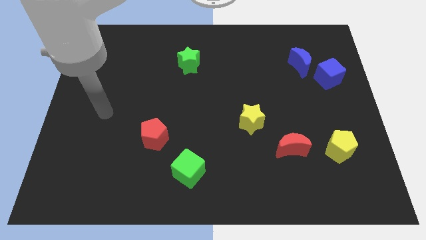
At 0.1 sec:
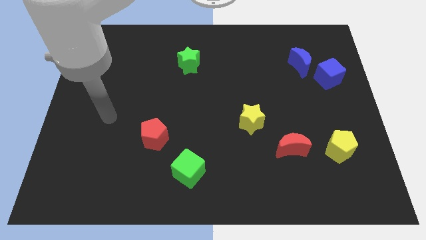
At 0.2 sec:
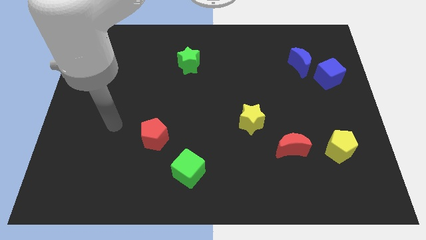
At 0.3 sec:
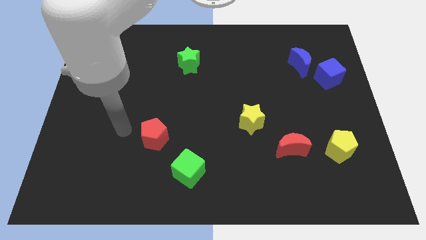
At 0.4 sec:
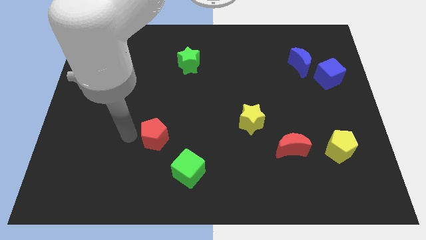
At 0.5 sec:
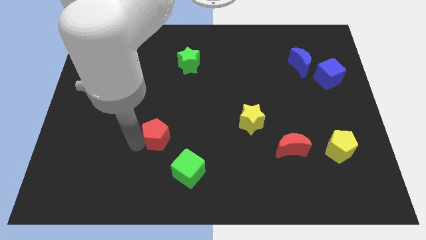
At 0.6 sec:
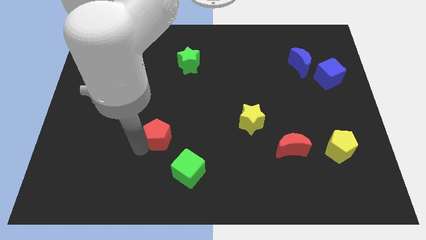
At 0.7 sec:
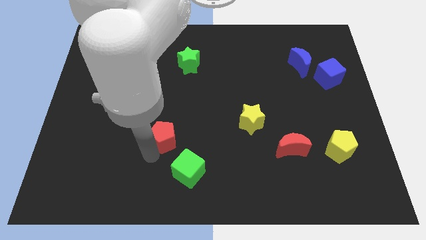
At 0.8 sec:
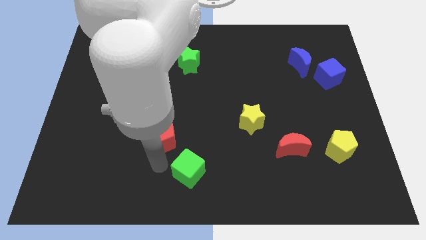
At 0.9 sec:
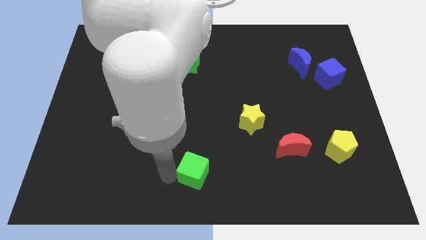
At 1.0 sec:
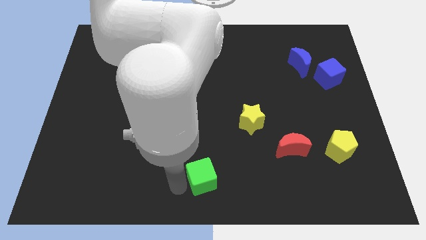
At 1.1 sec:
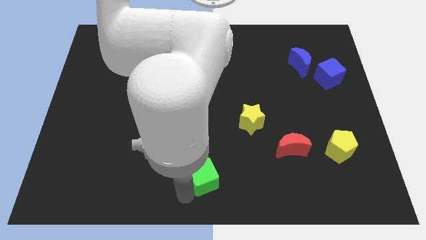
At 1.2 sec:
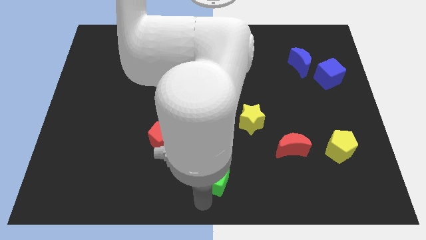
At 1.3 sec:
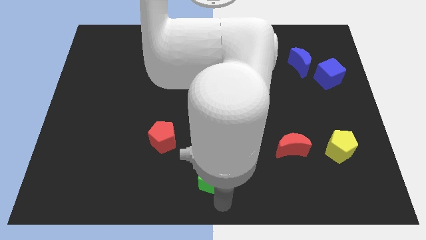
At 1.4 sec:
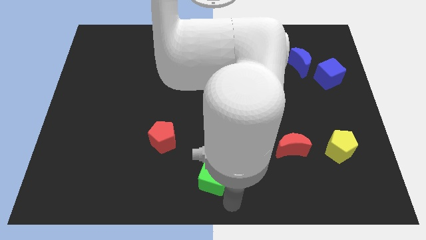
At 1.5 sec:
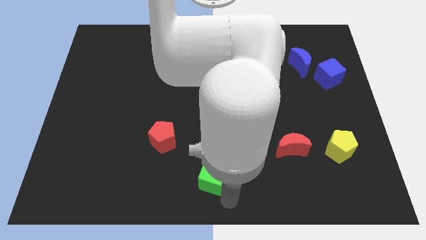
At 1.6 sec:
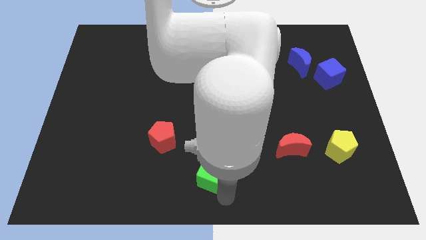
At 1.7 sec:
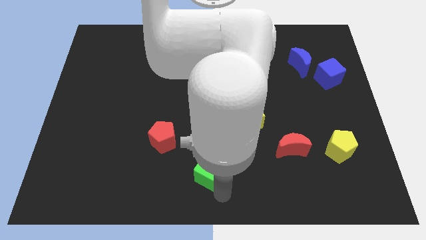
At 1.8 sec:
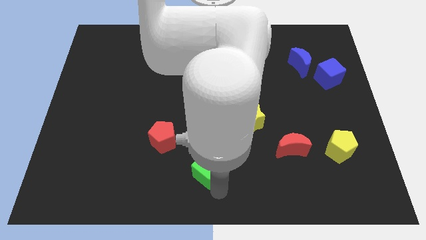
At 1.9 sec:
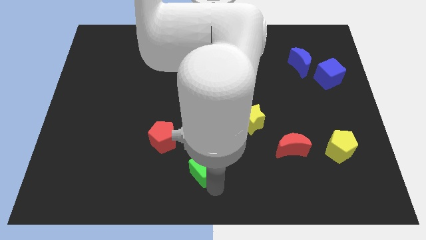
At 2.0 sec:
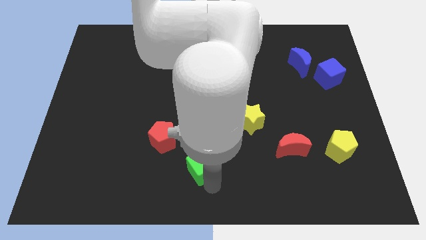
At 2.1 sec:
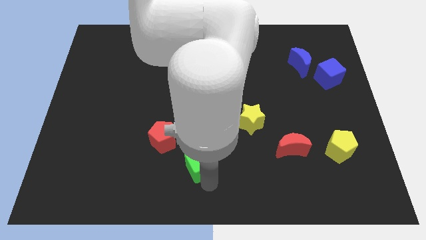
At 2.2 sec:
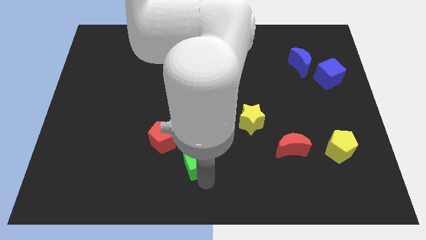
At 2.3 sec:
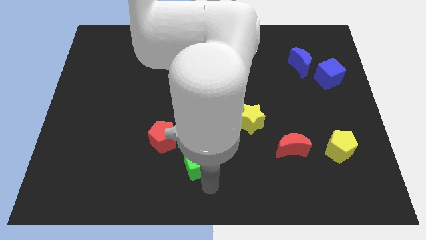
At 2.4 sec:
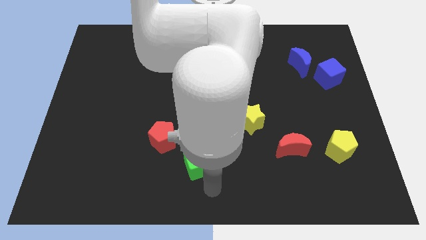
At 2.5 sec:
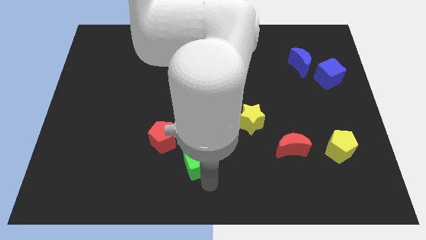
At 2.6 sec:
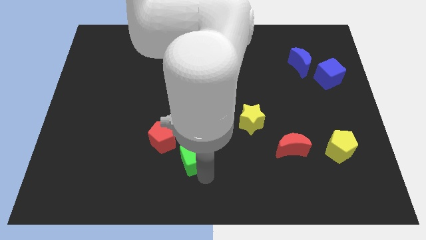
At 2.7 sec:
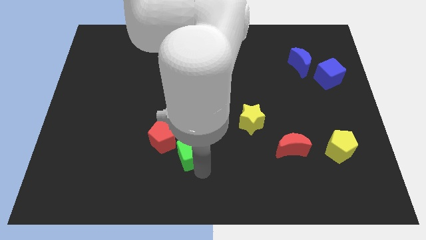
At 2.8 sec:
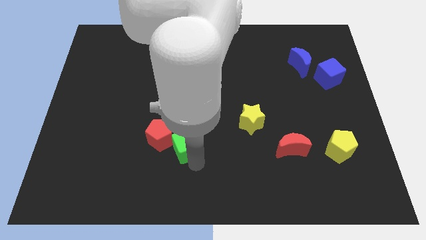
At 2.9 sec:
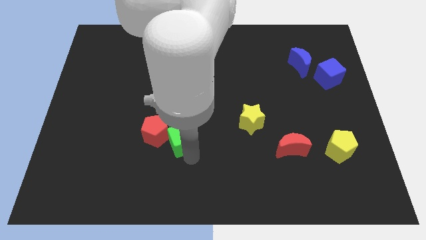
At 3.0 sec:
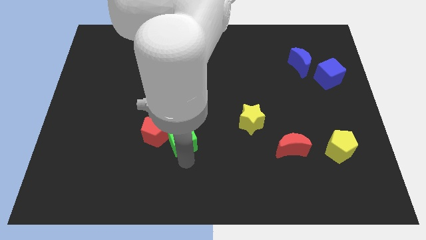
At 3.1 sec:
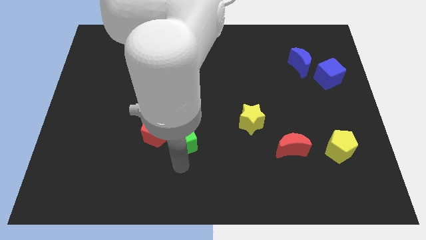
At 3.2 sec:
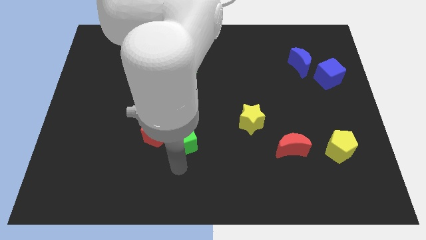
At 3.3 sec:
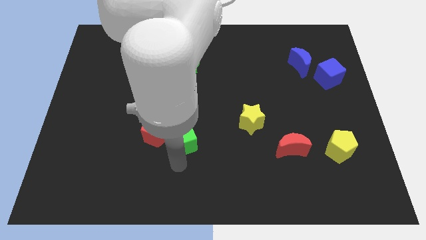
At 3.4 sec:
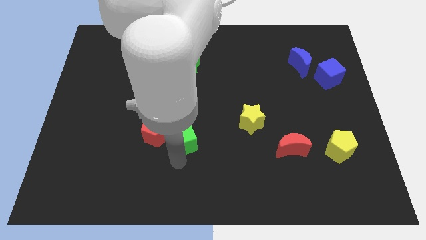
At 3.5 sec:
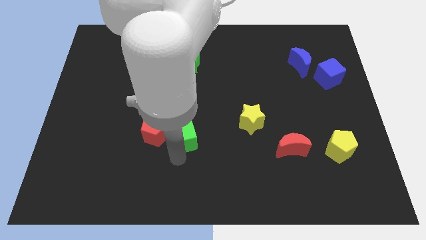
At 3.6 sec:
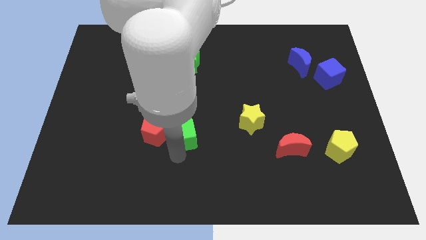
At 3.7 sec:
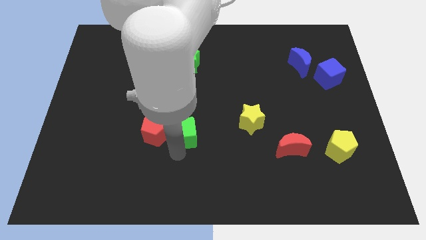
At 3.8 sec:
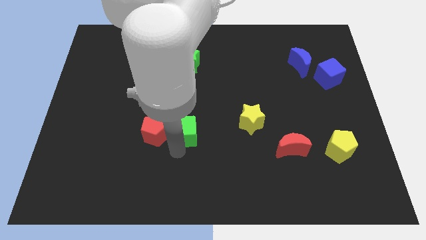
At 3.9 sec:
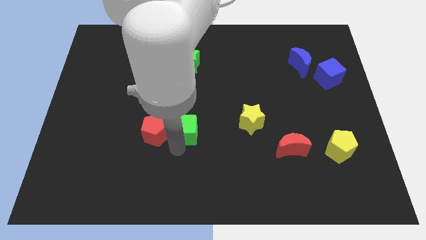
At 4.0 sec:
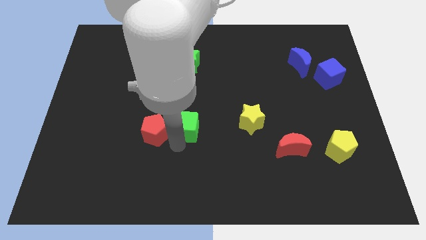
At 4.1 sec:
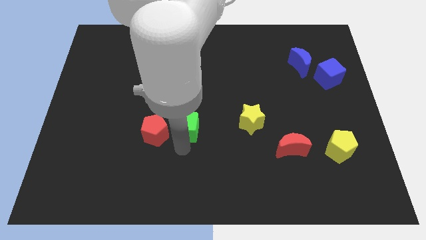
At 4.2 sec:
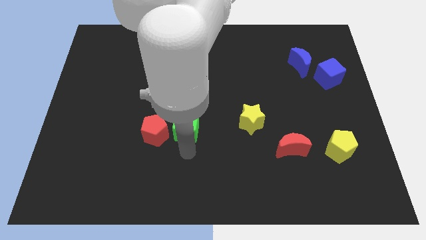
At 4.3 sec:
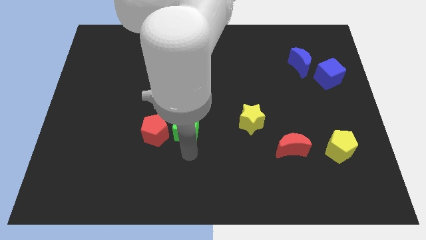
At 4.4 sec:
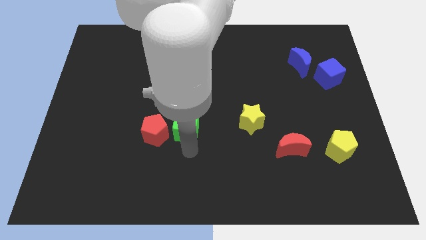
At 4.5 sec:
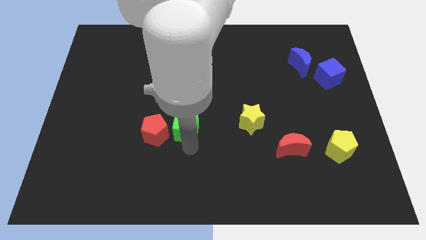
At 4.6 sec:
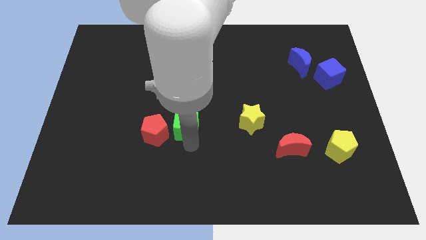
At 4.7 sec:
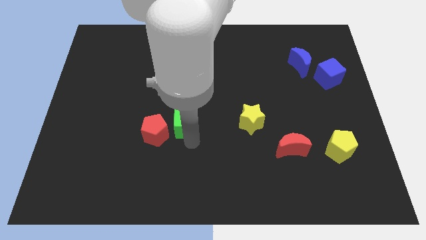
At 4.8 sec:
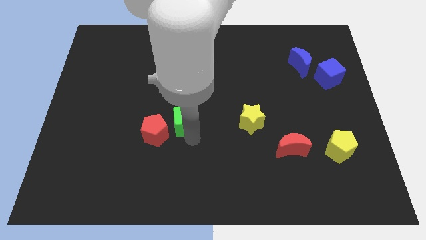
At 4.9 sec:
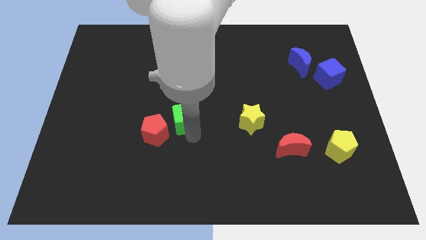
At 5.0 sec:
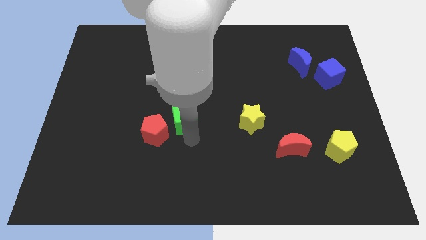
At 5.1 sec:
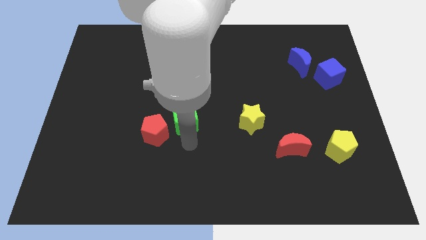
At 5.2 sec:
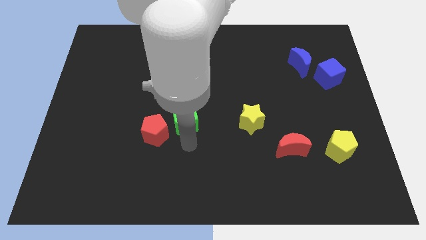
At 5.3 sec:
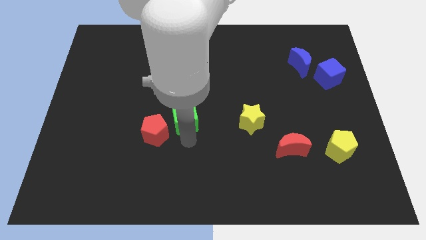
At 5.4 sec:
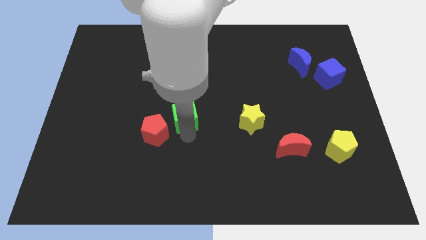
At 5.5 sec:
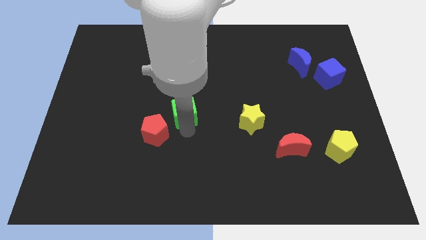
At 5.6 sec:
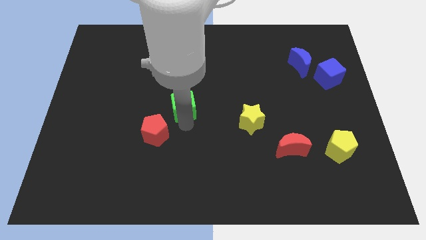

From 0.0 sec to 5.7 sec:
put the green cube below the green star

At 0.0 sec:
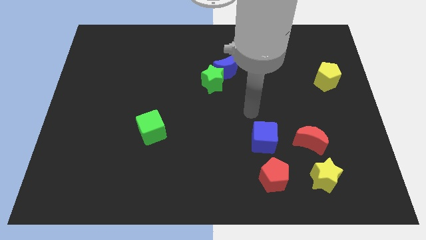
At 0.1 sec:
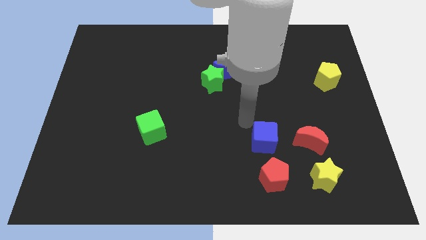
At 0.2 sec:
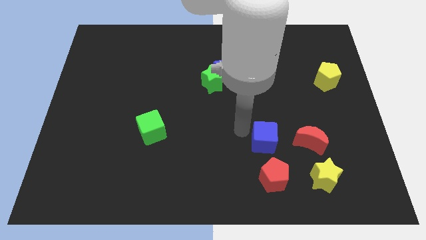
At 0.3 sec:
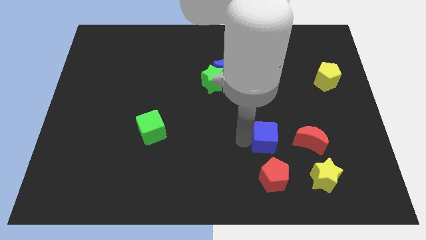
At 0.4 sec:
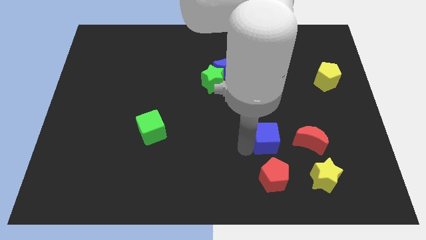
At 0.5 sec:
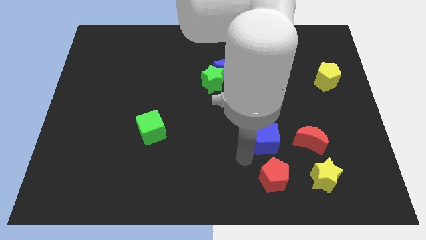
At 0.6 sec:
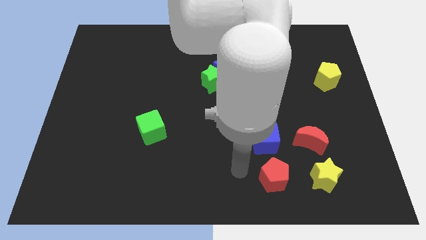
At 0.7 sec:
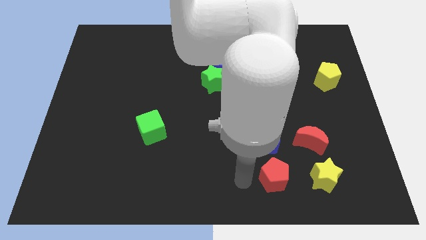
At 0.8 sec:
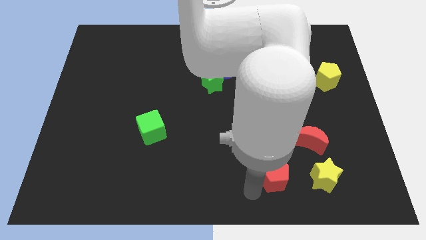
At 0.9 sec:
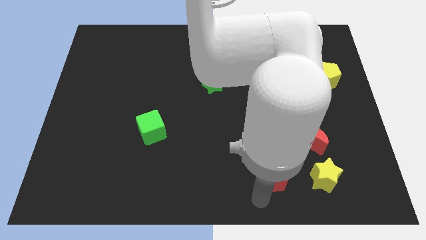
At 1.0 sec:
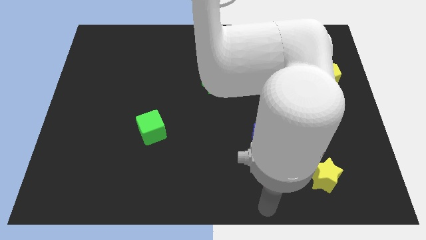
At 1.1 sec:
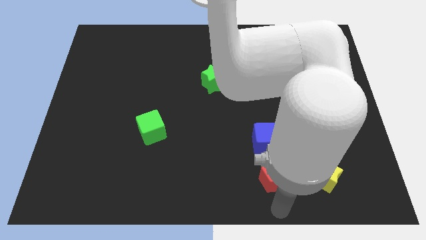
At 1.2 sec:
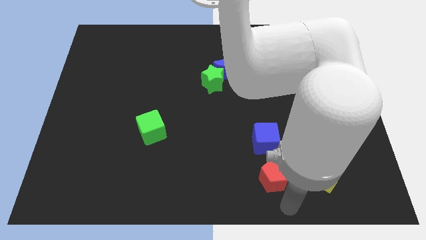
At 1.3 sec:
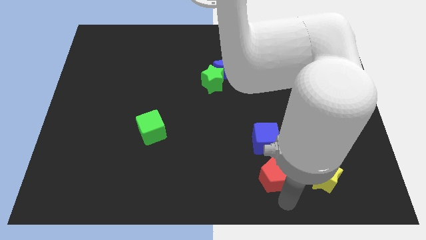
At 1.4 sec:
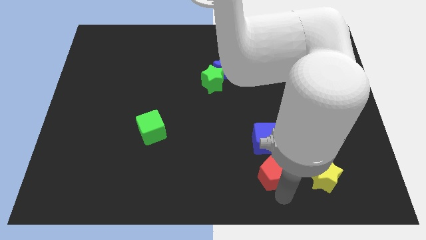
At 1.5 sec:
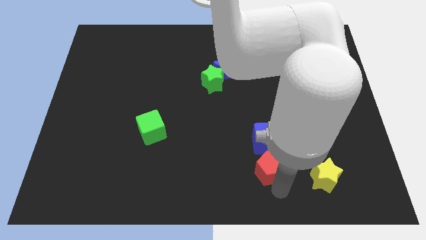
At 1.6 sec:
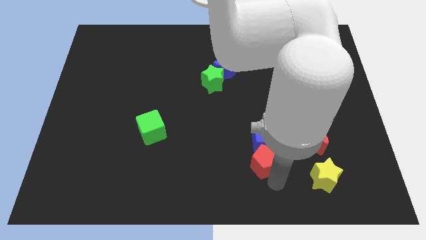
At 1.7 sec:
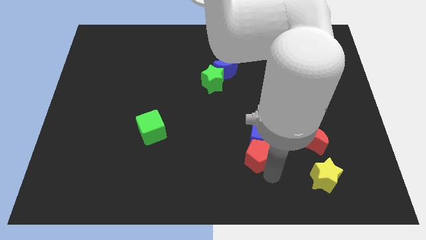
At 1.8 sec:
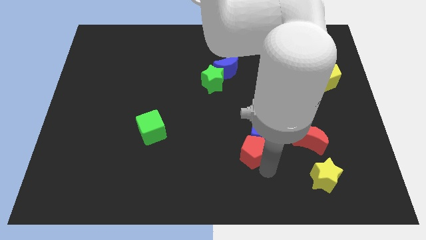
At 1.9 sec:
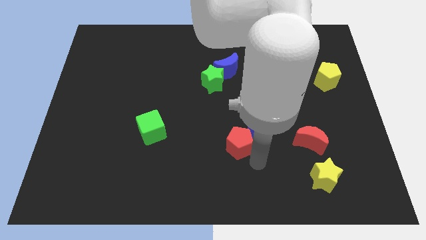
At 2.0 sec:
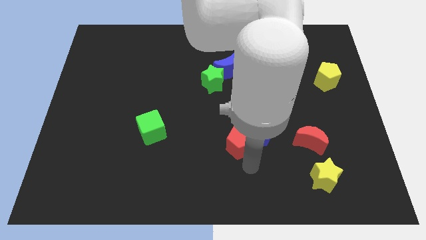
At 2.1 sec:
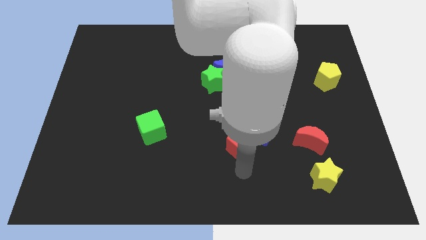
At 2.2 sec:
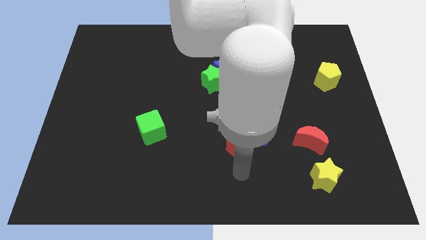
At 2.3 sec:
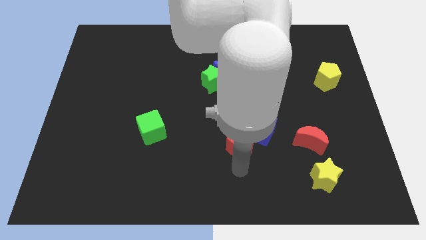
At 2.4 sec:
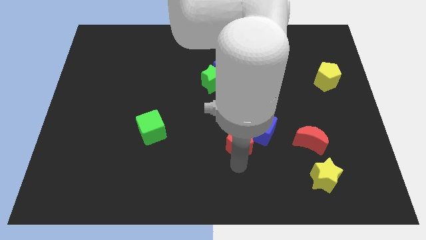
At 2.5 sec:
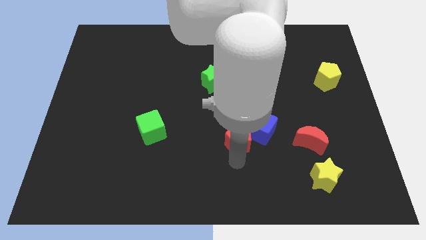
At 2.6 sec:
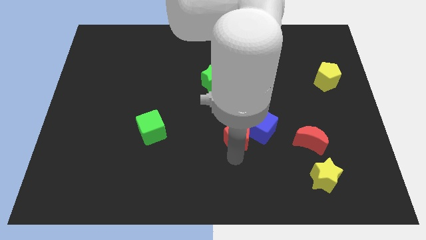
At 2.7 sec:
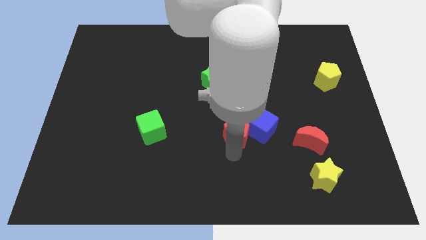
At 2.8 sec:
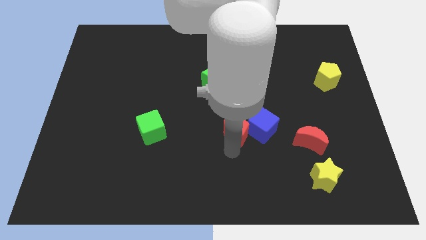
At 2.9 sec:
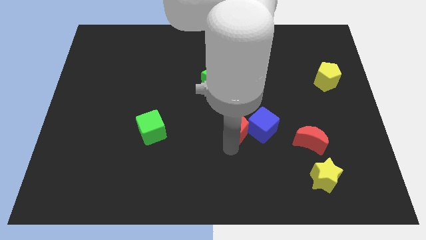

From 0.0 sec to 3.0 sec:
slide the red pentagon to the top left of the blue cube
